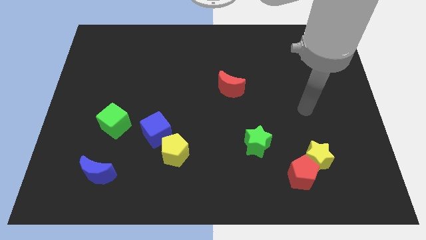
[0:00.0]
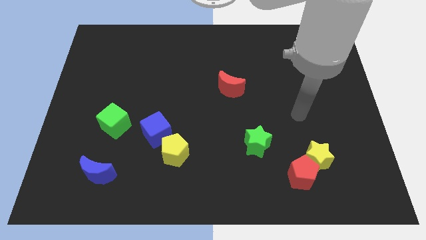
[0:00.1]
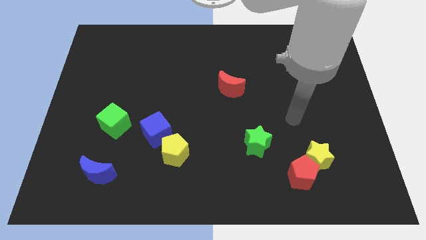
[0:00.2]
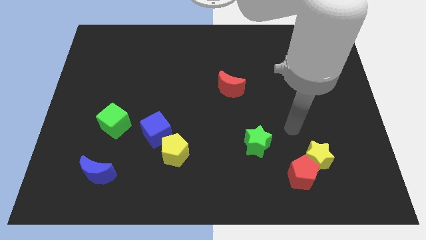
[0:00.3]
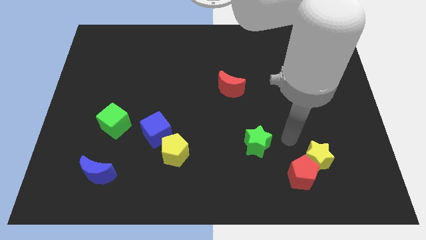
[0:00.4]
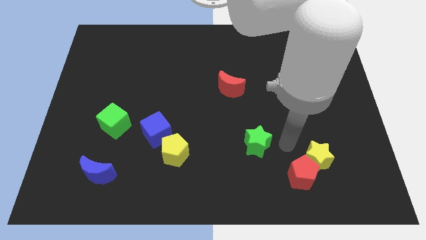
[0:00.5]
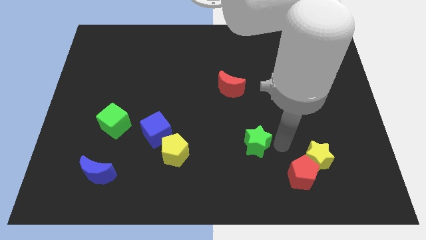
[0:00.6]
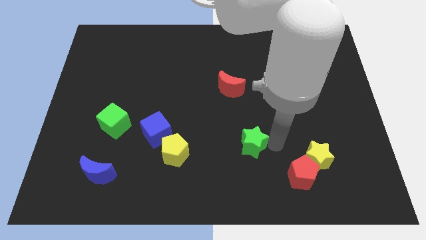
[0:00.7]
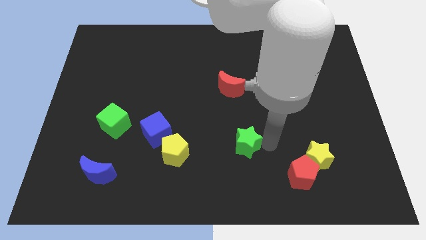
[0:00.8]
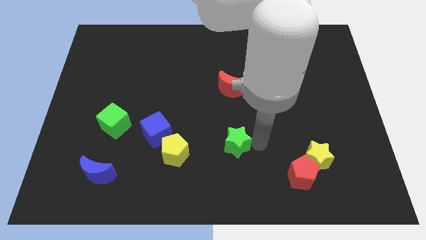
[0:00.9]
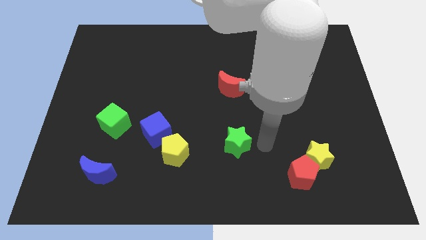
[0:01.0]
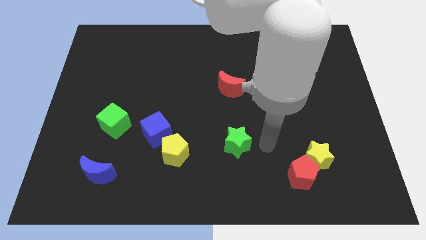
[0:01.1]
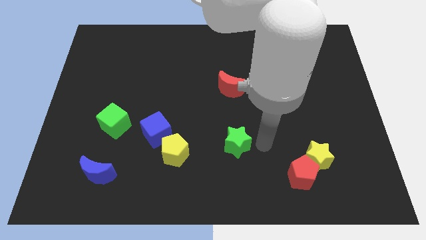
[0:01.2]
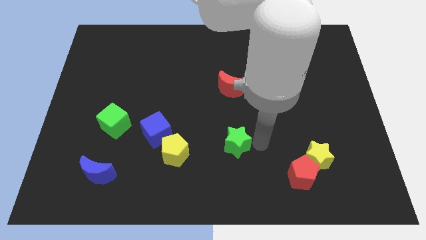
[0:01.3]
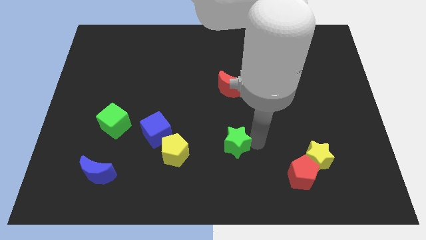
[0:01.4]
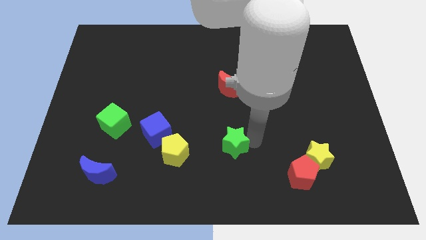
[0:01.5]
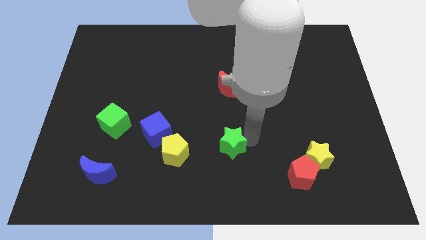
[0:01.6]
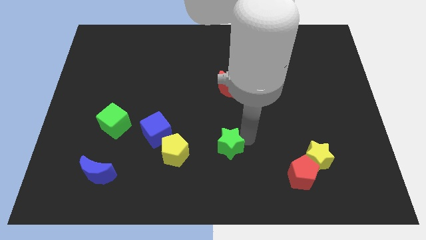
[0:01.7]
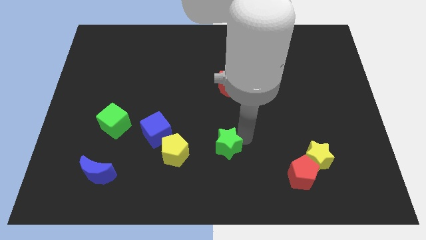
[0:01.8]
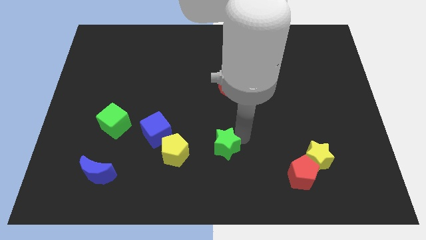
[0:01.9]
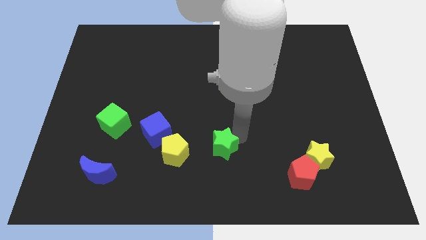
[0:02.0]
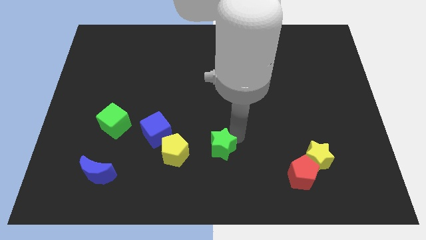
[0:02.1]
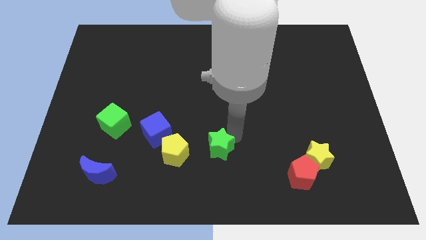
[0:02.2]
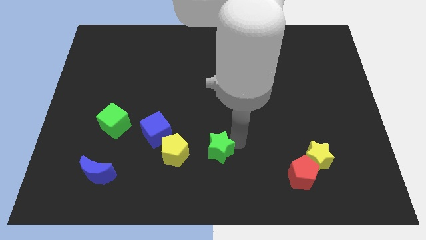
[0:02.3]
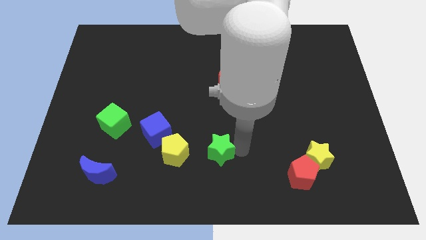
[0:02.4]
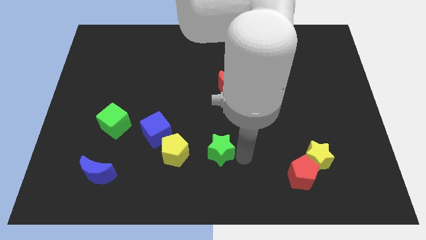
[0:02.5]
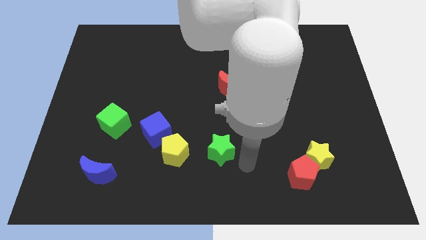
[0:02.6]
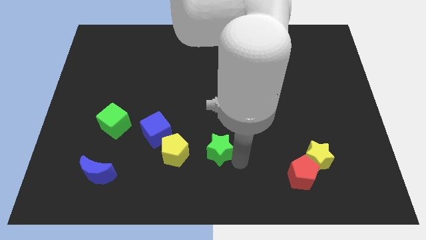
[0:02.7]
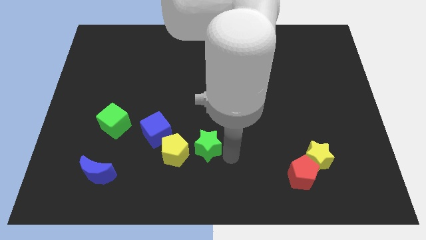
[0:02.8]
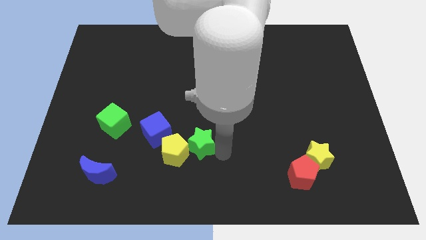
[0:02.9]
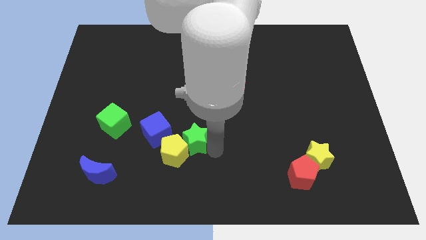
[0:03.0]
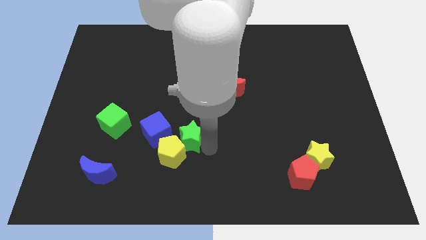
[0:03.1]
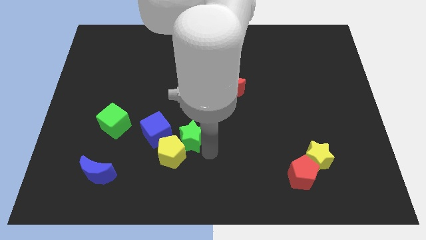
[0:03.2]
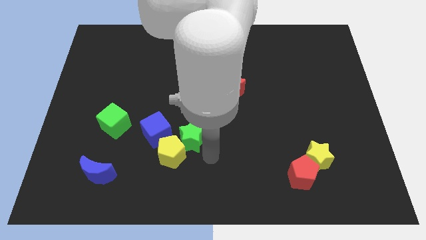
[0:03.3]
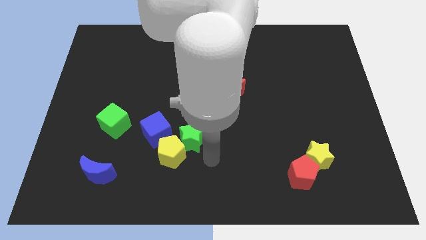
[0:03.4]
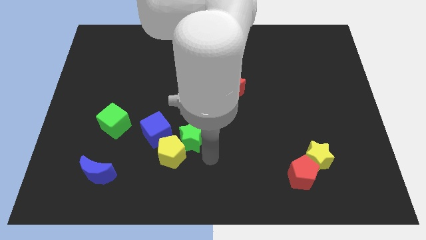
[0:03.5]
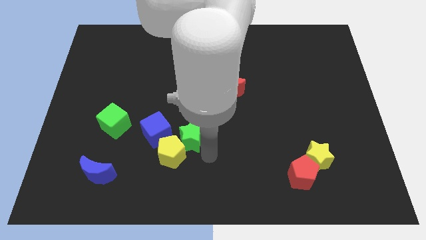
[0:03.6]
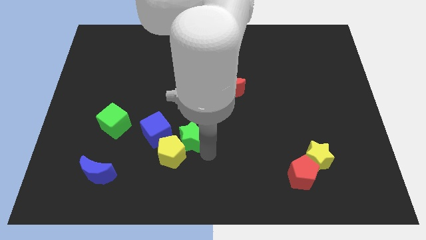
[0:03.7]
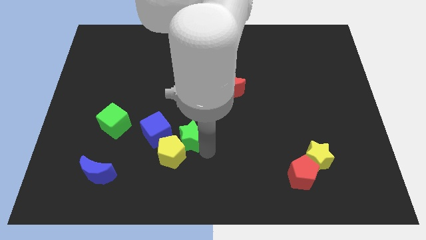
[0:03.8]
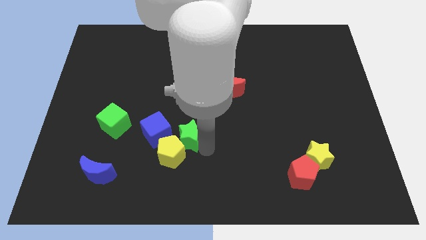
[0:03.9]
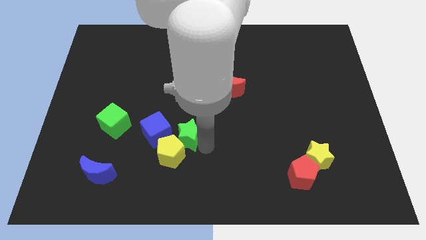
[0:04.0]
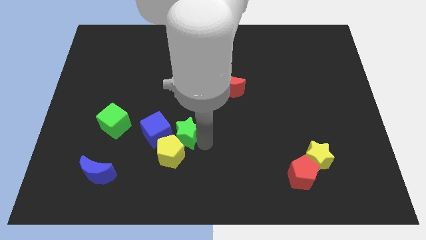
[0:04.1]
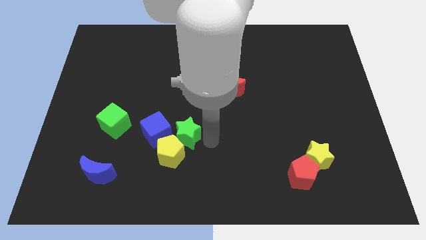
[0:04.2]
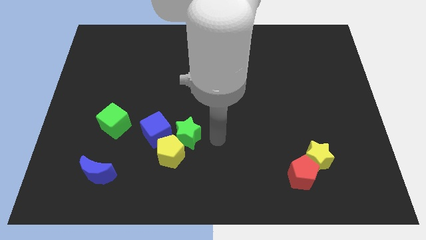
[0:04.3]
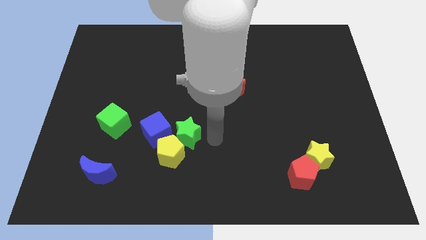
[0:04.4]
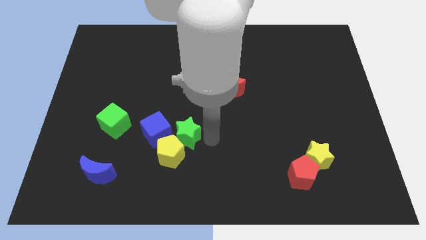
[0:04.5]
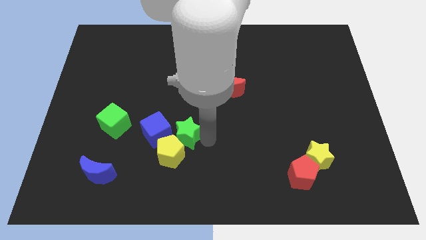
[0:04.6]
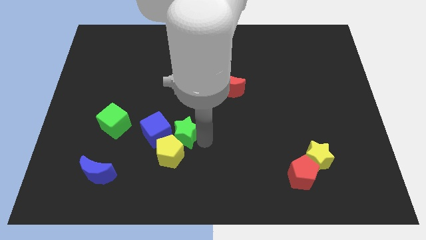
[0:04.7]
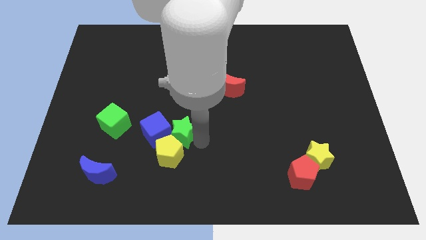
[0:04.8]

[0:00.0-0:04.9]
put the green star to the blue cube

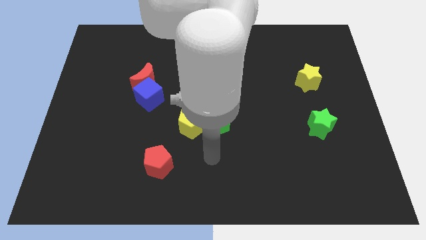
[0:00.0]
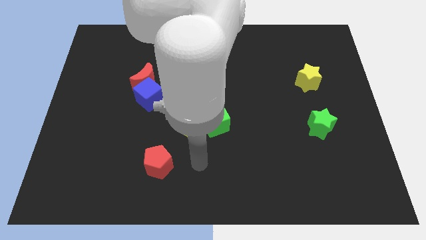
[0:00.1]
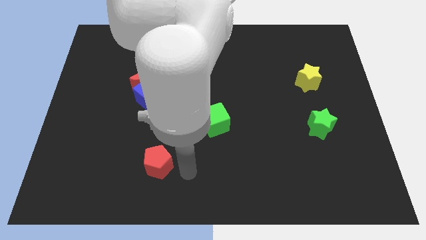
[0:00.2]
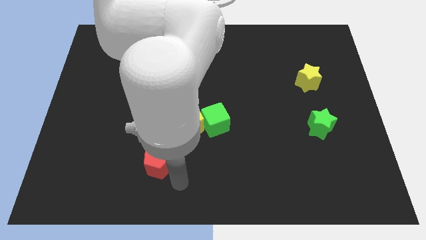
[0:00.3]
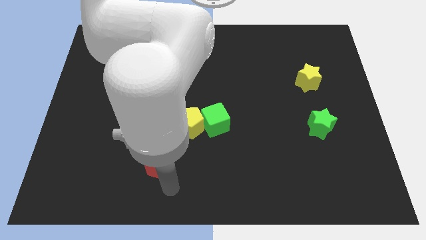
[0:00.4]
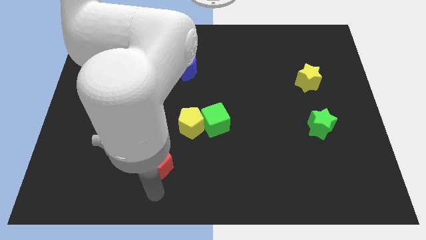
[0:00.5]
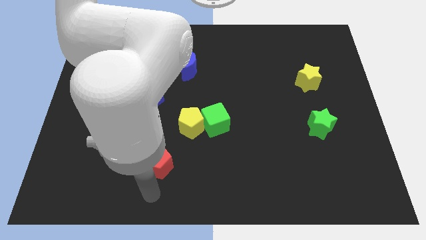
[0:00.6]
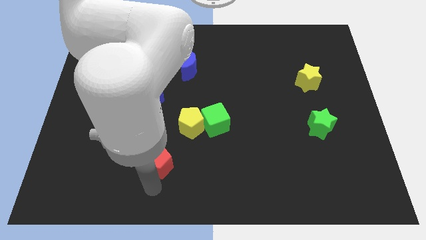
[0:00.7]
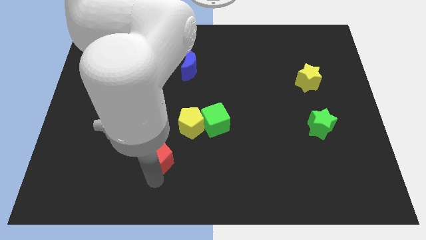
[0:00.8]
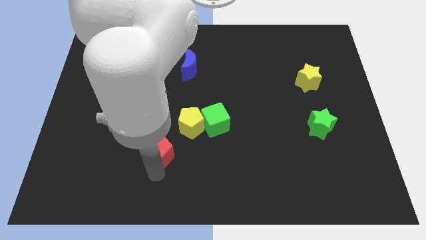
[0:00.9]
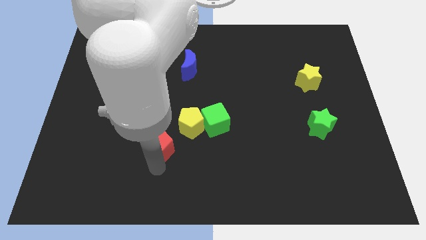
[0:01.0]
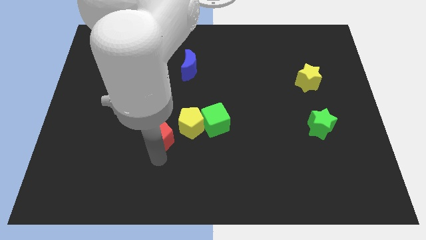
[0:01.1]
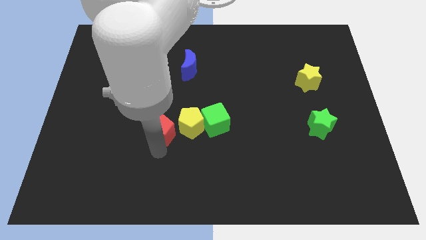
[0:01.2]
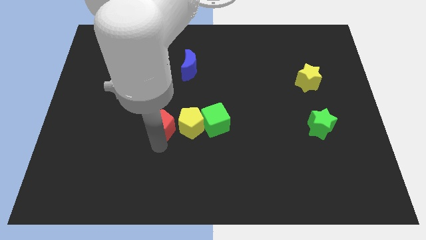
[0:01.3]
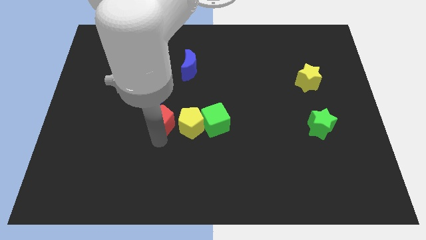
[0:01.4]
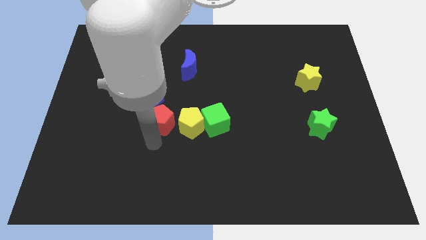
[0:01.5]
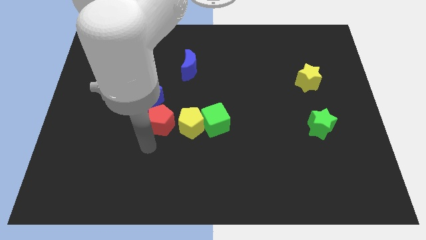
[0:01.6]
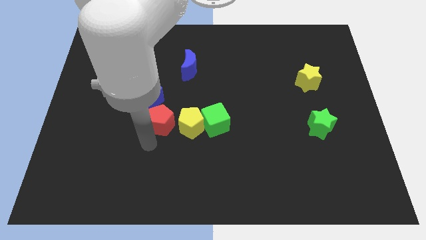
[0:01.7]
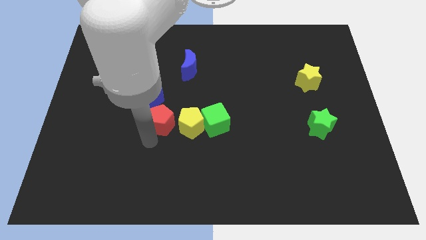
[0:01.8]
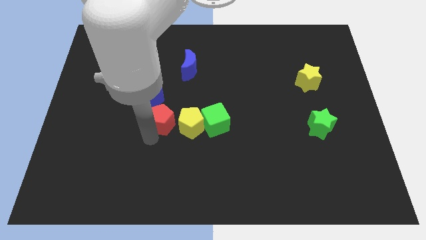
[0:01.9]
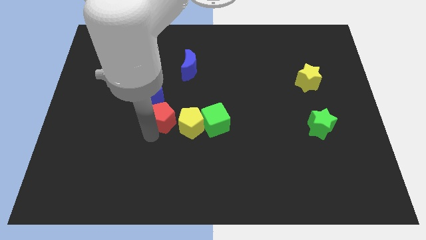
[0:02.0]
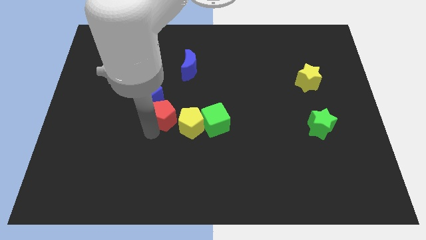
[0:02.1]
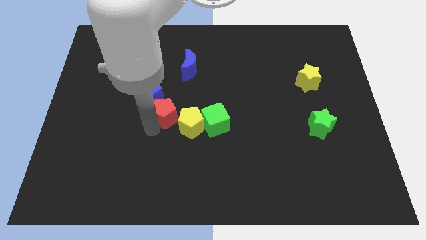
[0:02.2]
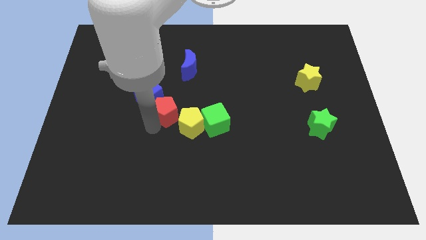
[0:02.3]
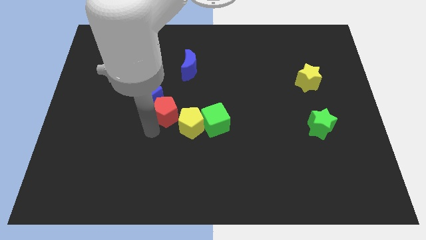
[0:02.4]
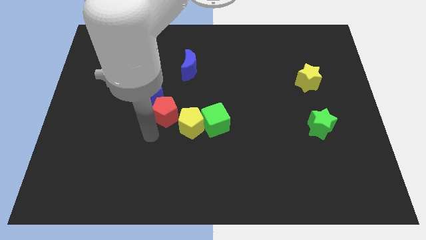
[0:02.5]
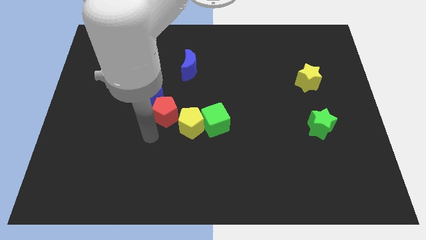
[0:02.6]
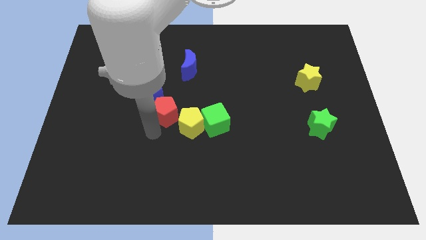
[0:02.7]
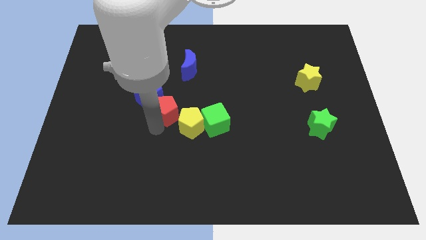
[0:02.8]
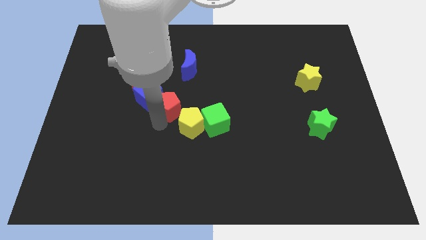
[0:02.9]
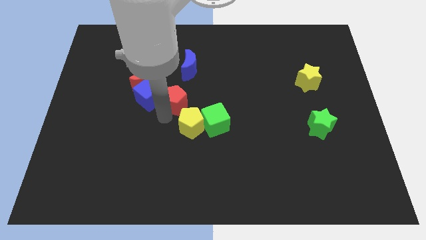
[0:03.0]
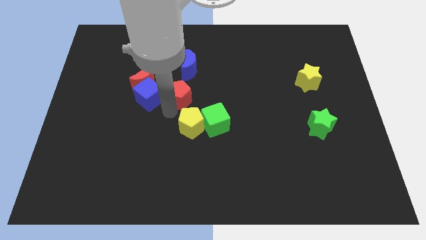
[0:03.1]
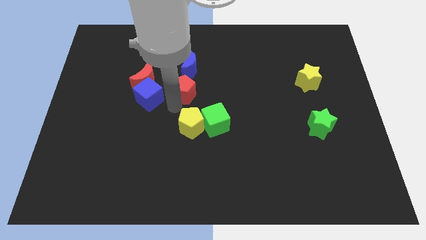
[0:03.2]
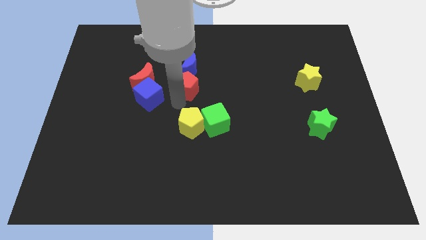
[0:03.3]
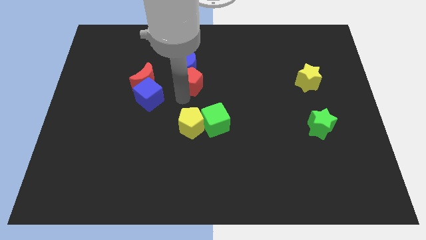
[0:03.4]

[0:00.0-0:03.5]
slide the red pentagon towards the blue moon
